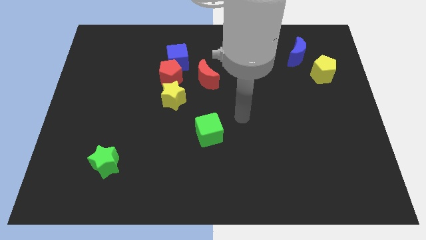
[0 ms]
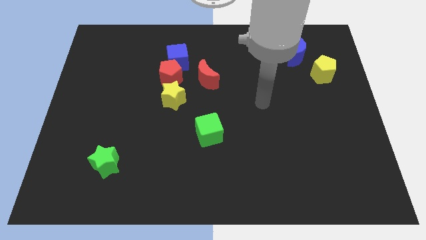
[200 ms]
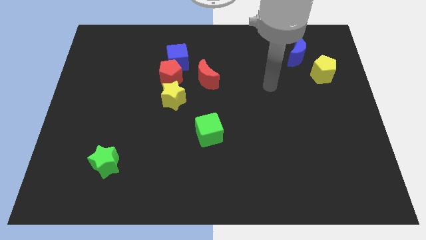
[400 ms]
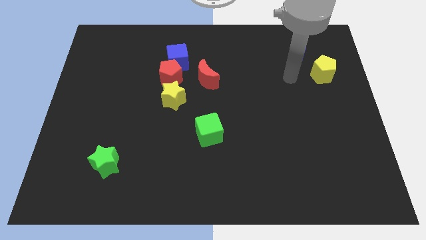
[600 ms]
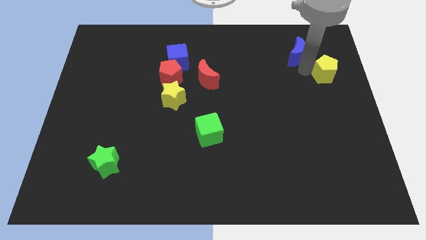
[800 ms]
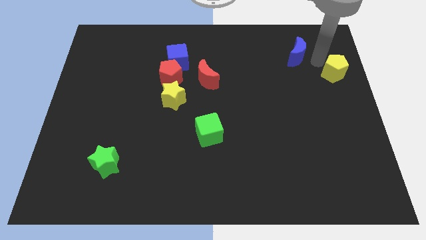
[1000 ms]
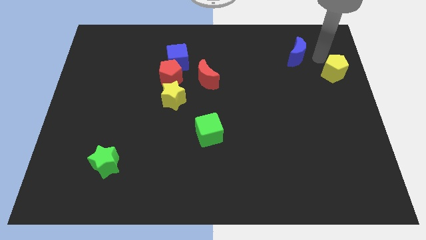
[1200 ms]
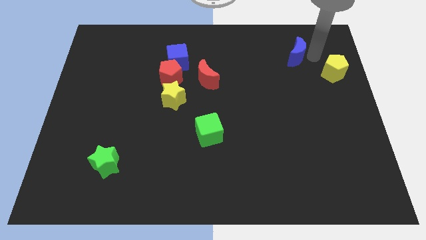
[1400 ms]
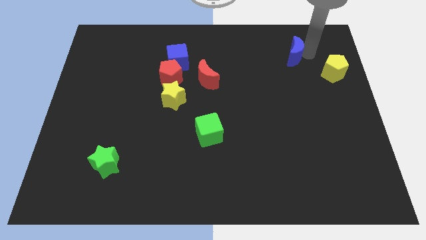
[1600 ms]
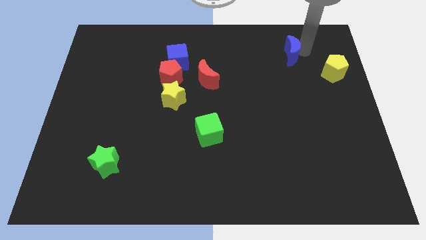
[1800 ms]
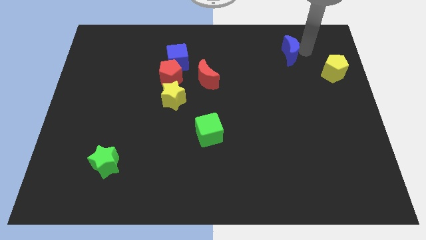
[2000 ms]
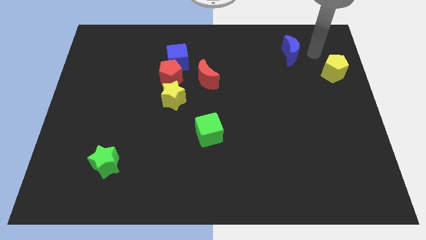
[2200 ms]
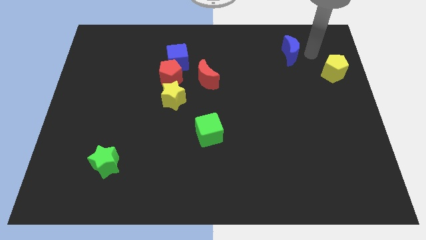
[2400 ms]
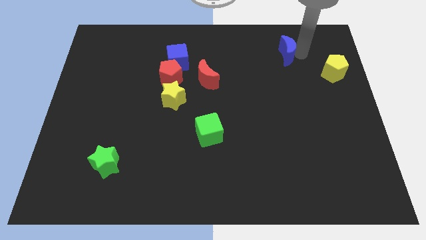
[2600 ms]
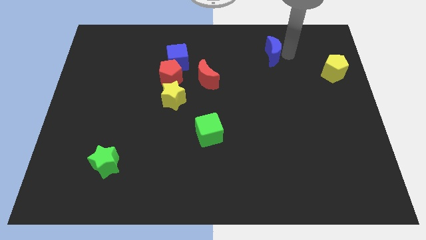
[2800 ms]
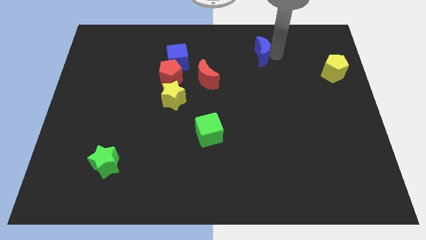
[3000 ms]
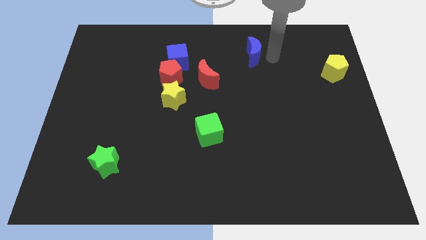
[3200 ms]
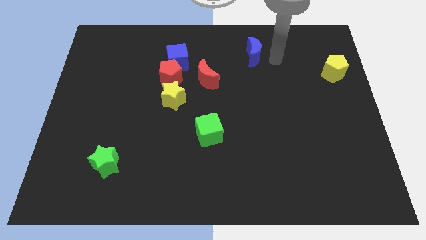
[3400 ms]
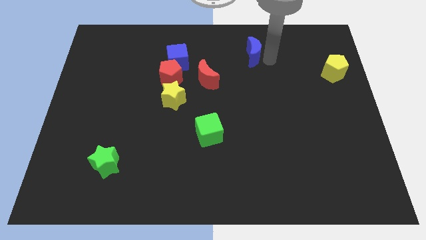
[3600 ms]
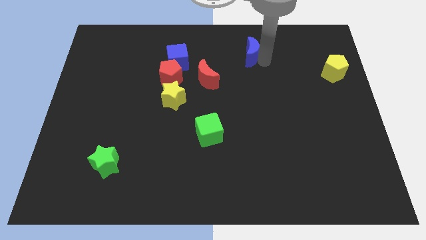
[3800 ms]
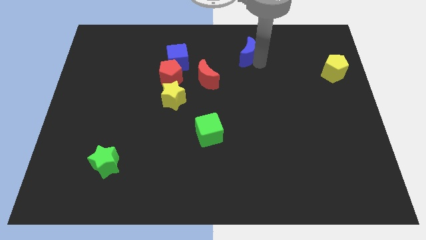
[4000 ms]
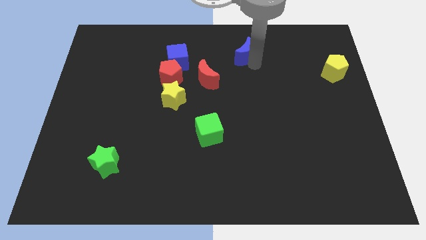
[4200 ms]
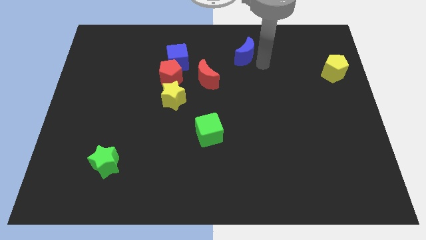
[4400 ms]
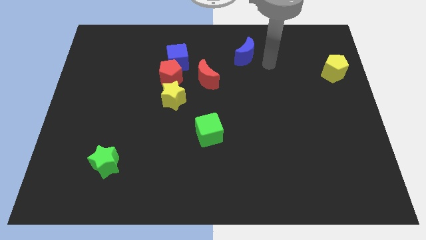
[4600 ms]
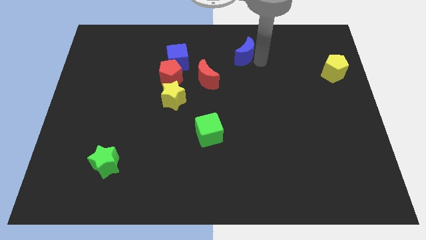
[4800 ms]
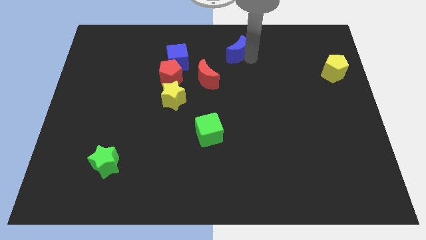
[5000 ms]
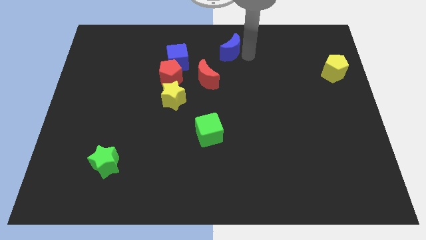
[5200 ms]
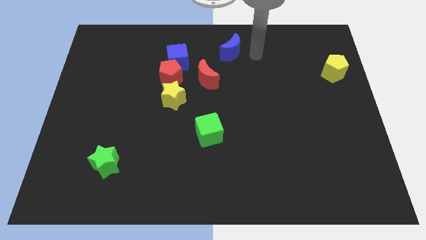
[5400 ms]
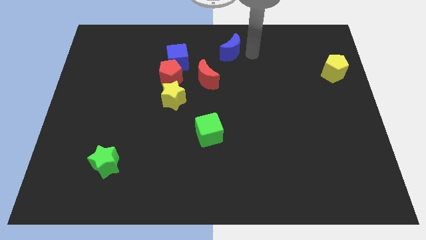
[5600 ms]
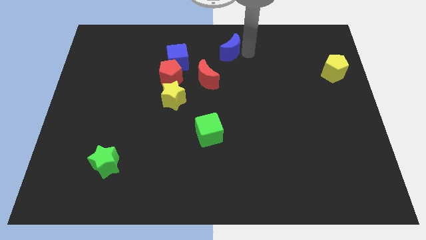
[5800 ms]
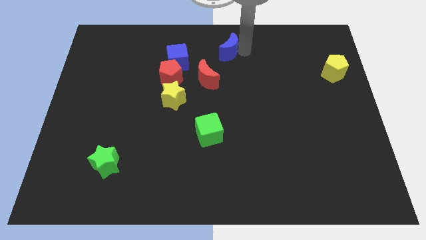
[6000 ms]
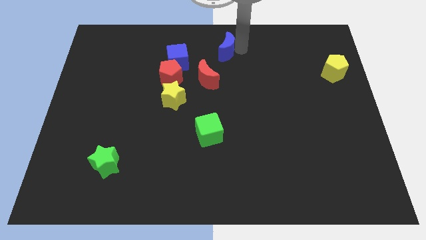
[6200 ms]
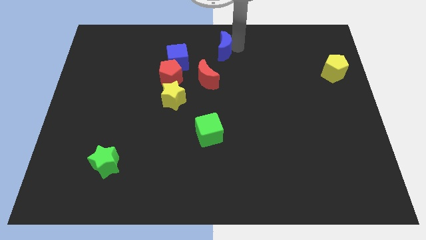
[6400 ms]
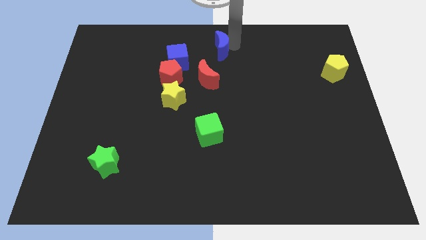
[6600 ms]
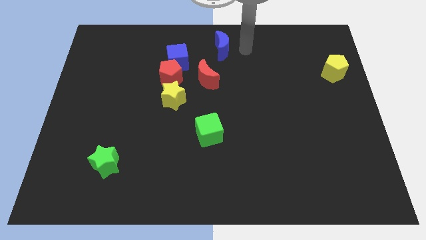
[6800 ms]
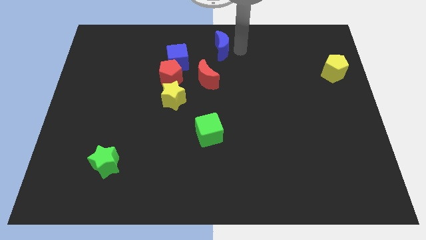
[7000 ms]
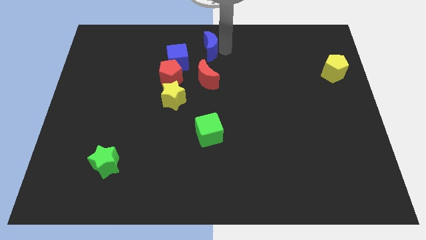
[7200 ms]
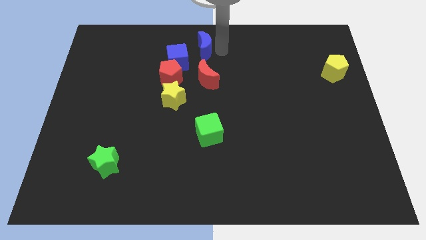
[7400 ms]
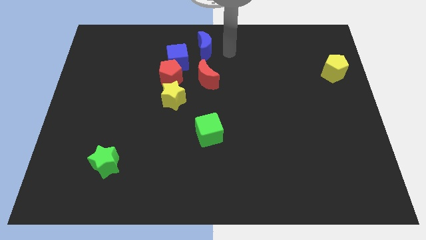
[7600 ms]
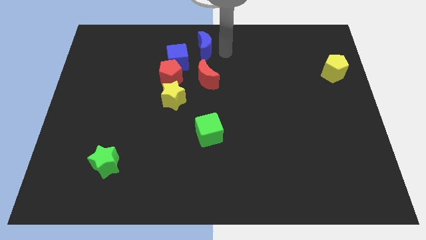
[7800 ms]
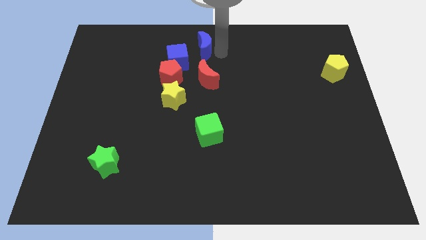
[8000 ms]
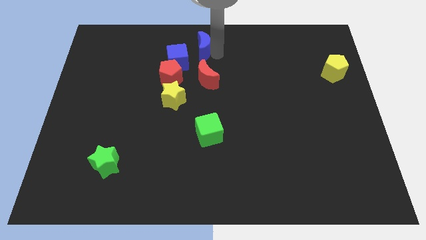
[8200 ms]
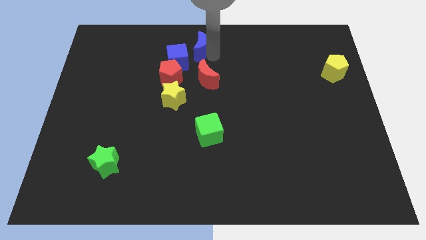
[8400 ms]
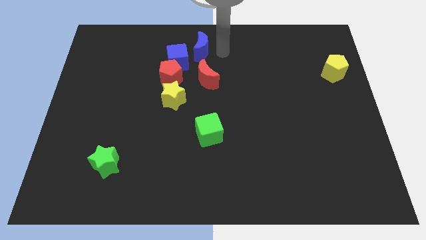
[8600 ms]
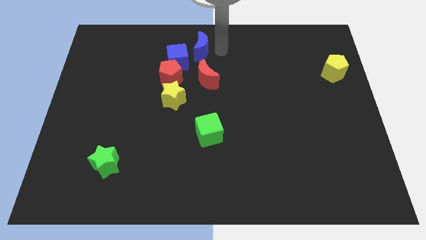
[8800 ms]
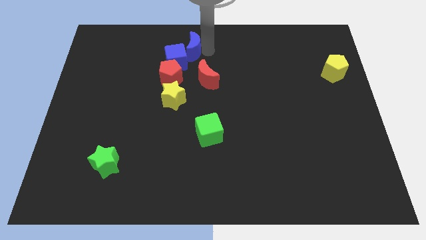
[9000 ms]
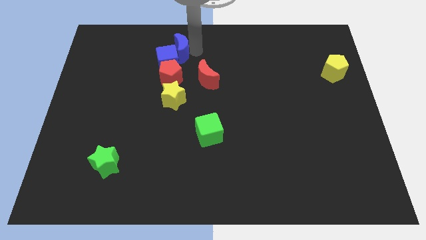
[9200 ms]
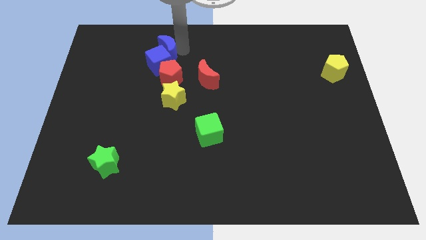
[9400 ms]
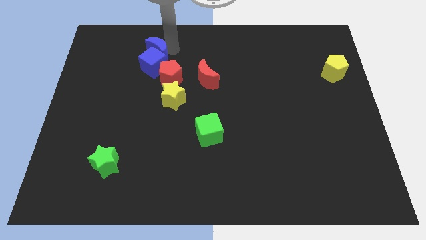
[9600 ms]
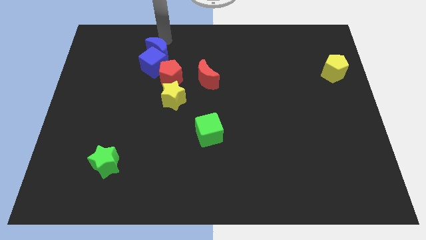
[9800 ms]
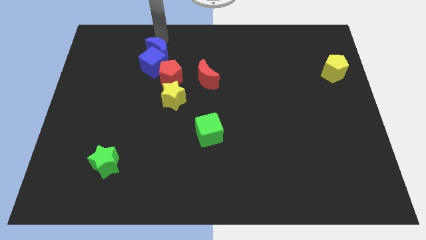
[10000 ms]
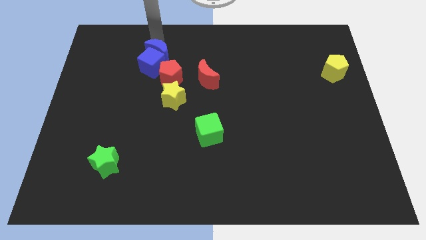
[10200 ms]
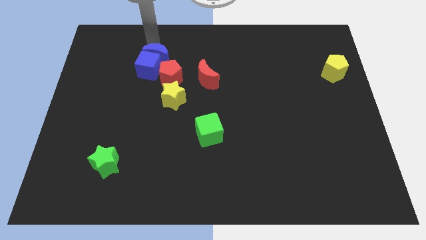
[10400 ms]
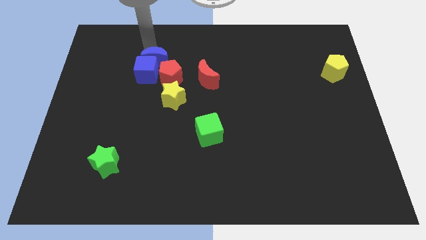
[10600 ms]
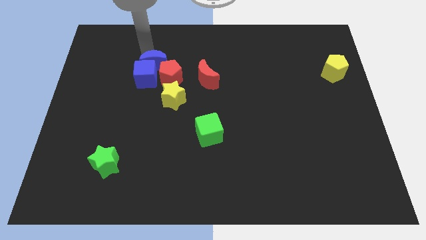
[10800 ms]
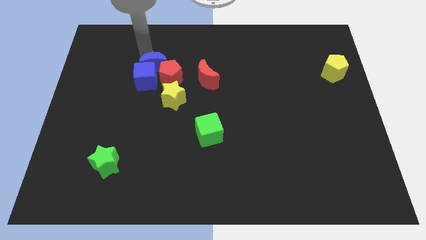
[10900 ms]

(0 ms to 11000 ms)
push the blue moon to the top left side of the yellow star

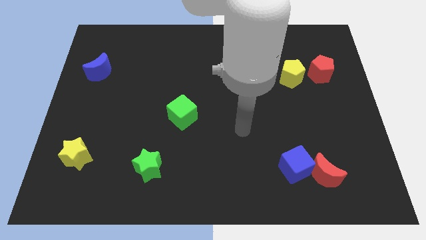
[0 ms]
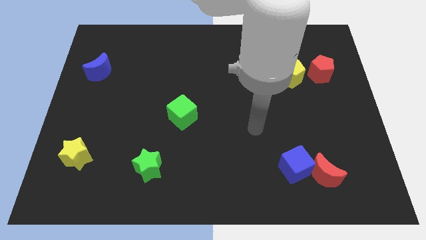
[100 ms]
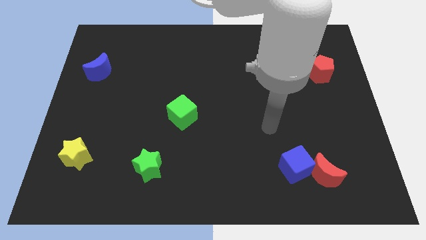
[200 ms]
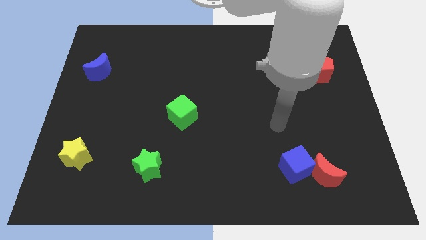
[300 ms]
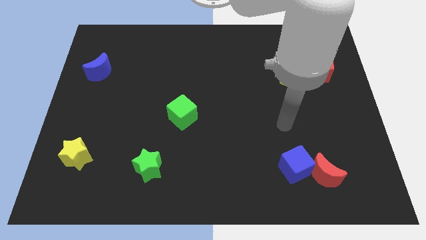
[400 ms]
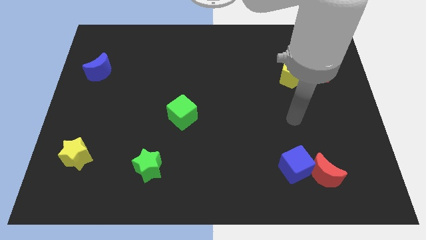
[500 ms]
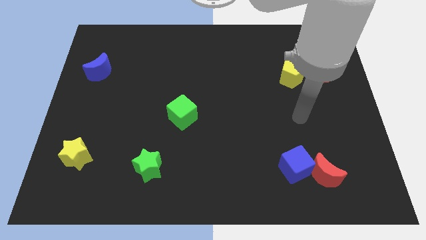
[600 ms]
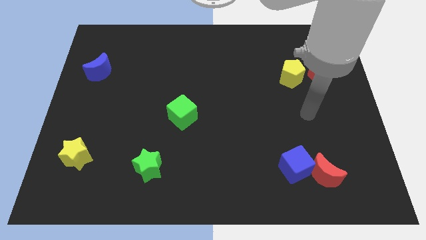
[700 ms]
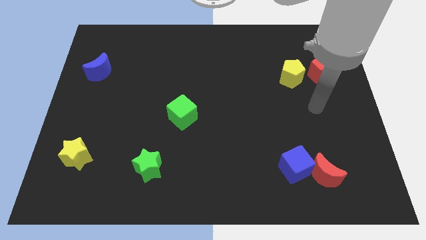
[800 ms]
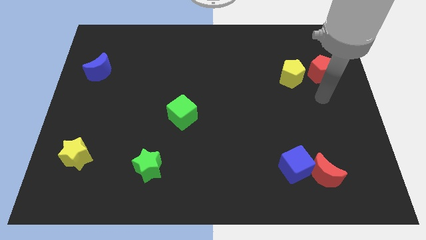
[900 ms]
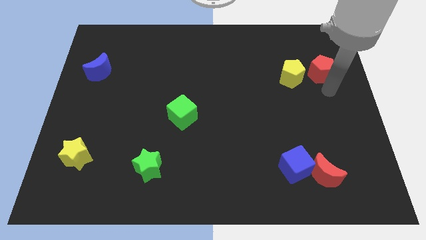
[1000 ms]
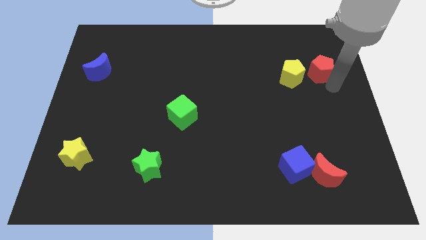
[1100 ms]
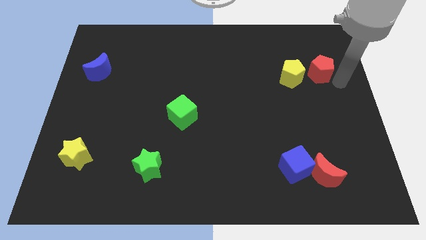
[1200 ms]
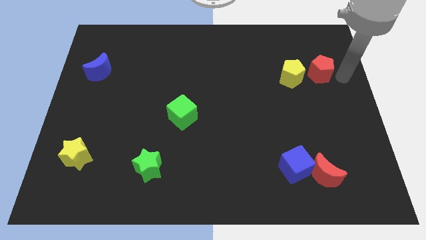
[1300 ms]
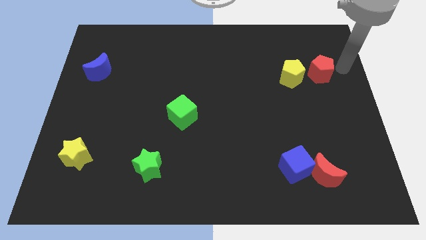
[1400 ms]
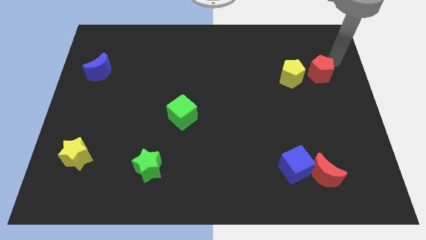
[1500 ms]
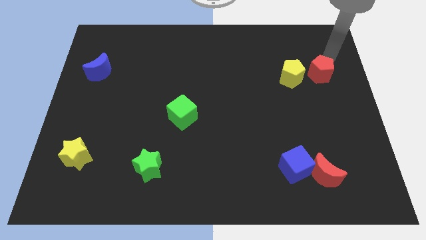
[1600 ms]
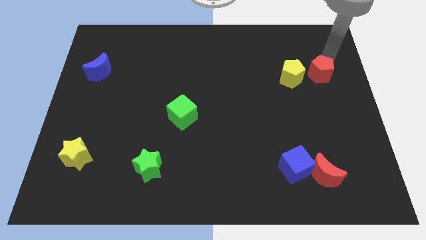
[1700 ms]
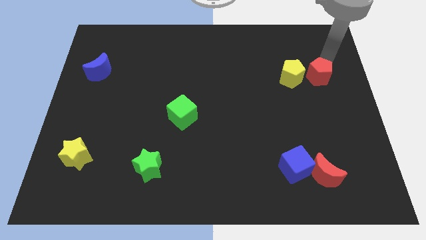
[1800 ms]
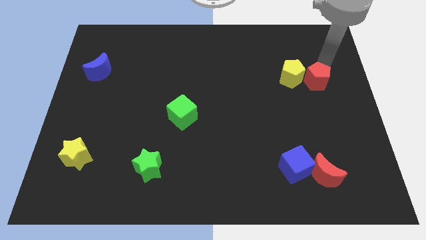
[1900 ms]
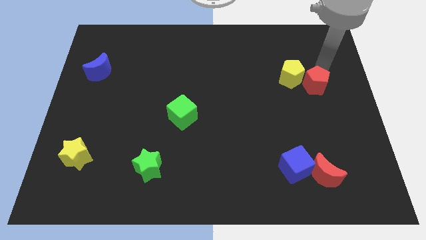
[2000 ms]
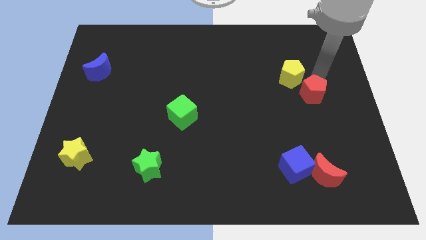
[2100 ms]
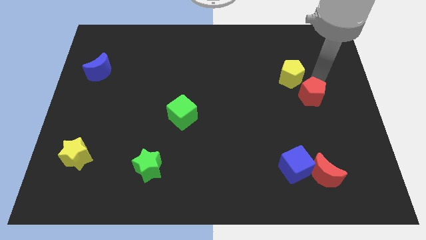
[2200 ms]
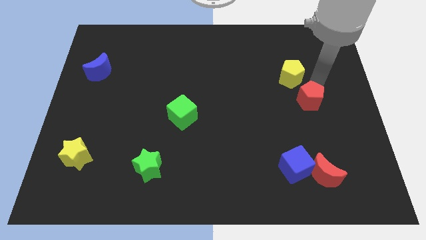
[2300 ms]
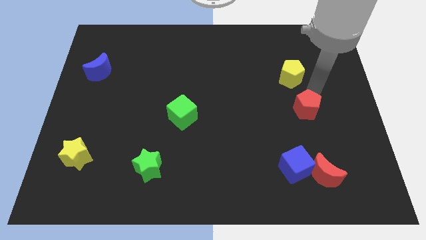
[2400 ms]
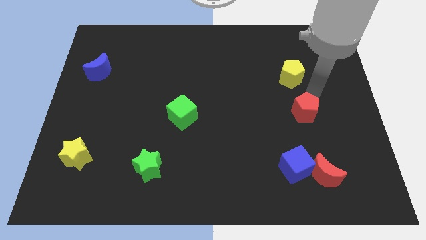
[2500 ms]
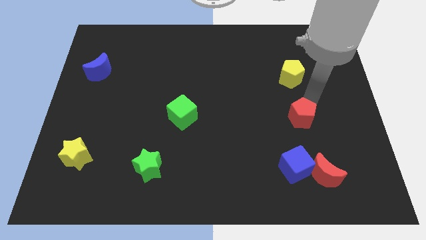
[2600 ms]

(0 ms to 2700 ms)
put the red pentagon to the top of the blue cube
